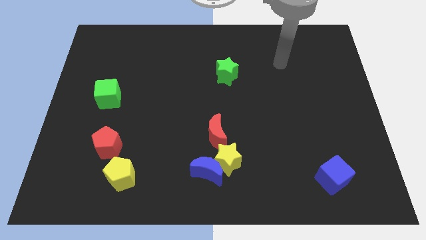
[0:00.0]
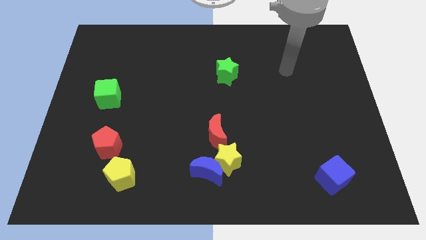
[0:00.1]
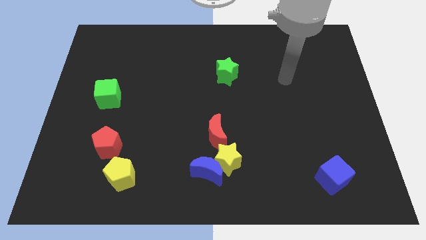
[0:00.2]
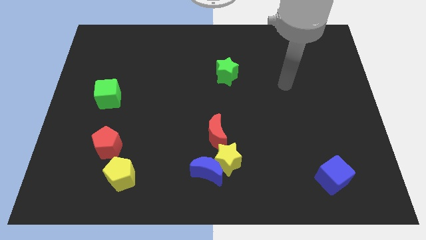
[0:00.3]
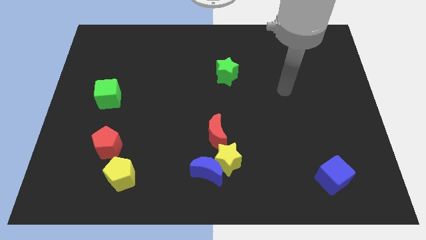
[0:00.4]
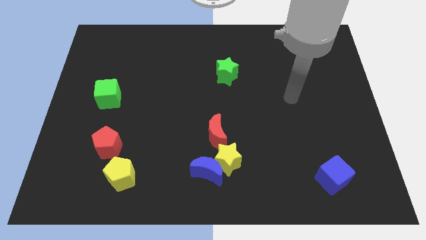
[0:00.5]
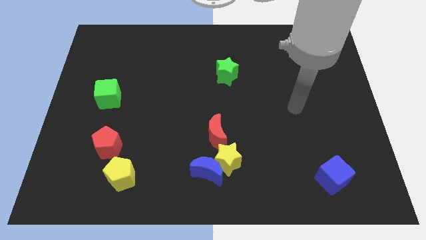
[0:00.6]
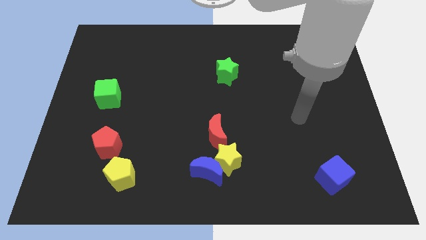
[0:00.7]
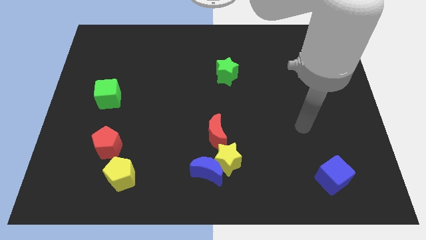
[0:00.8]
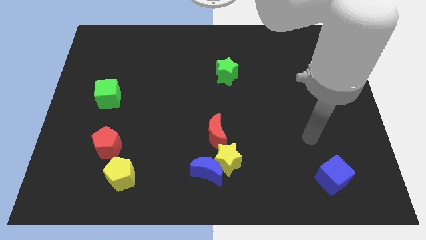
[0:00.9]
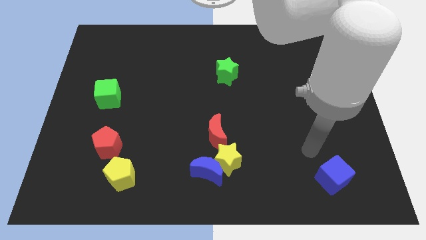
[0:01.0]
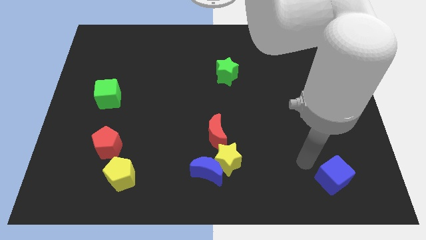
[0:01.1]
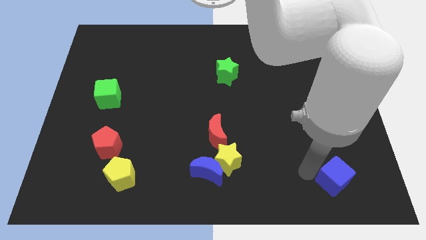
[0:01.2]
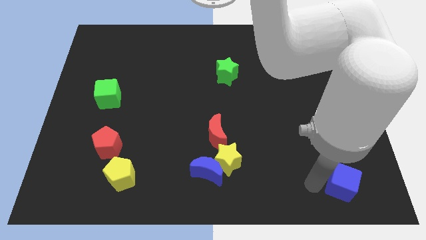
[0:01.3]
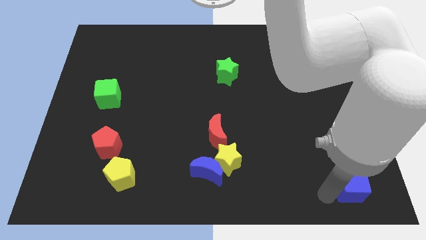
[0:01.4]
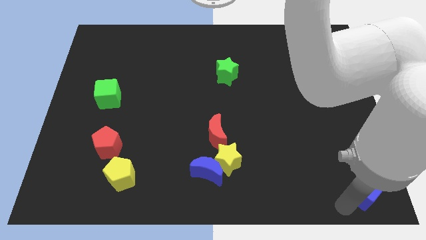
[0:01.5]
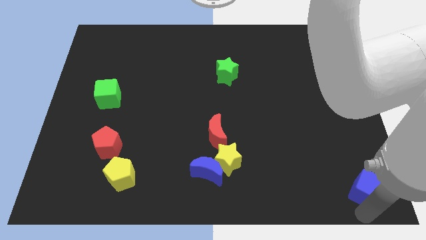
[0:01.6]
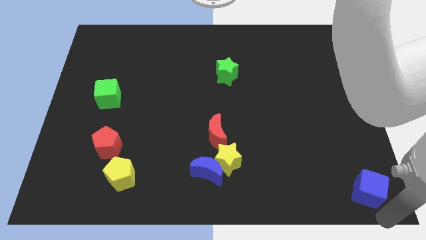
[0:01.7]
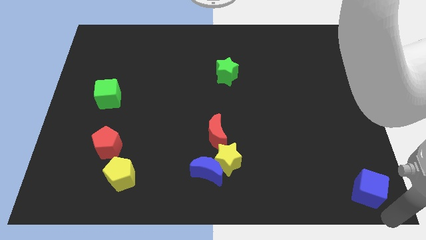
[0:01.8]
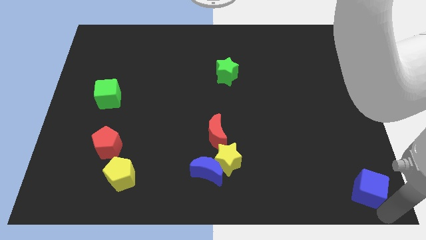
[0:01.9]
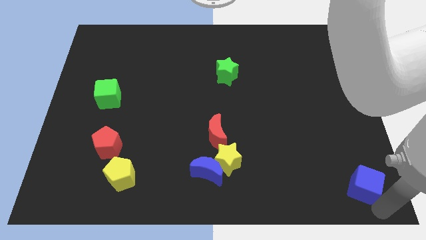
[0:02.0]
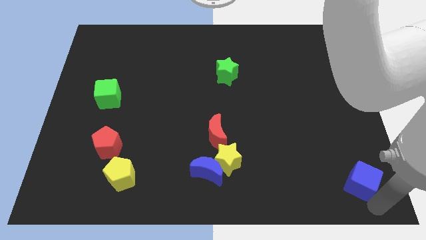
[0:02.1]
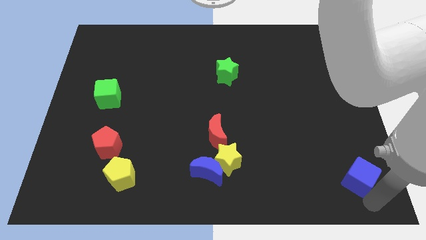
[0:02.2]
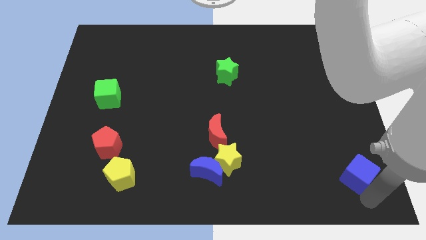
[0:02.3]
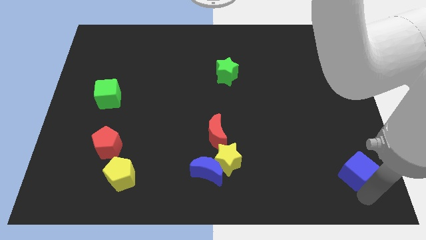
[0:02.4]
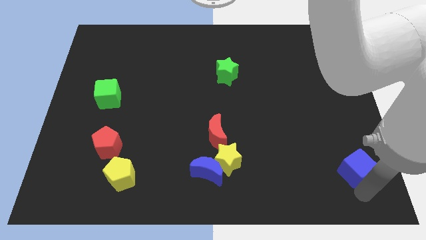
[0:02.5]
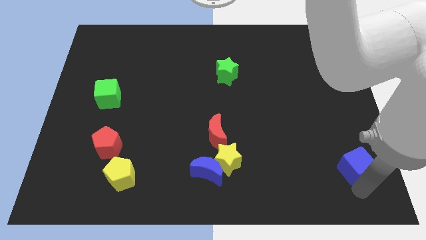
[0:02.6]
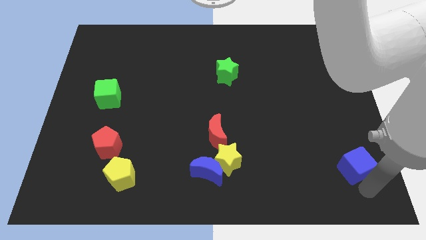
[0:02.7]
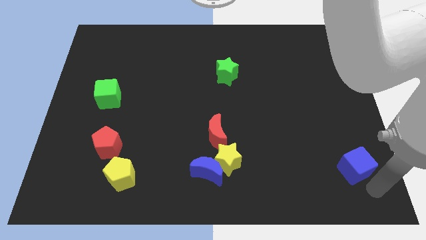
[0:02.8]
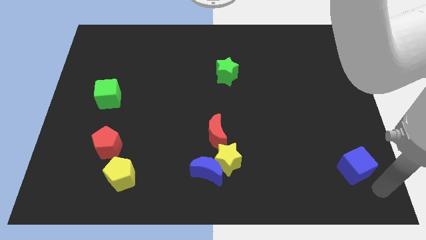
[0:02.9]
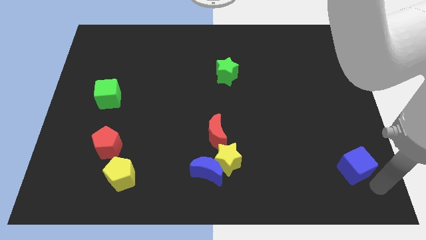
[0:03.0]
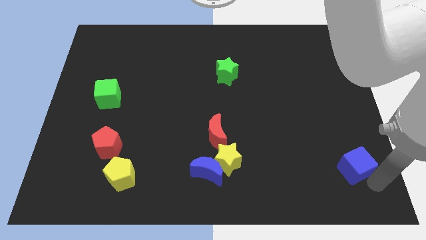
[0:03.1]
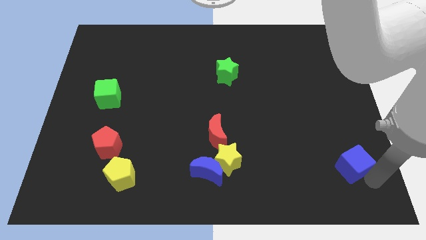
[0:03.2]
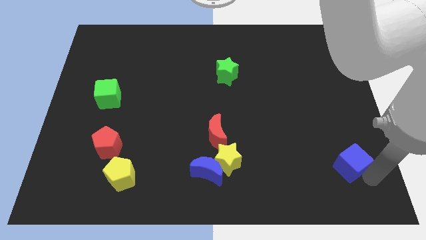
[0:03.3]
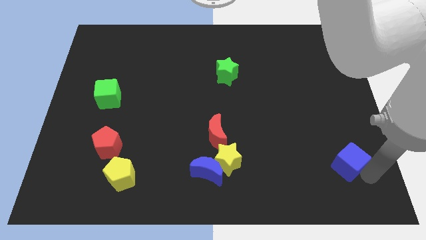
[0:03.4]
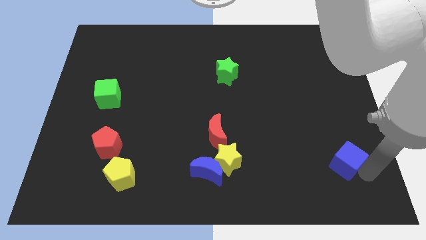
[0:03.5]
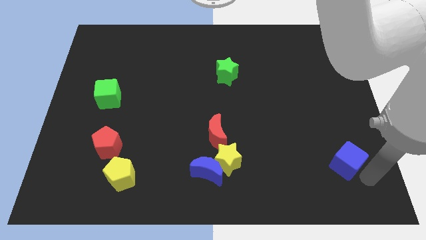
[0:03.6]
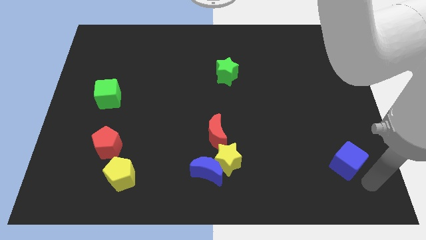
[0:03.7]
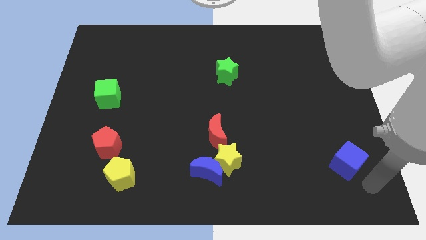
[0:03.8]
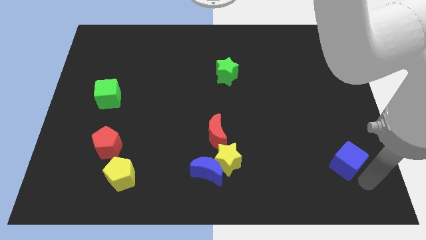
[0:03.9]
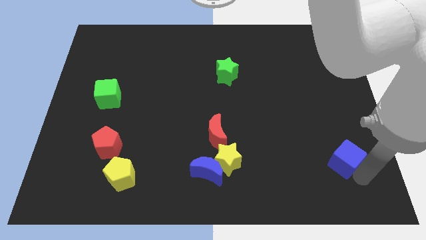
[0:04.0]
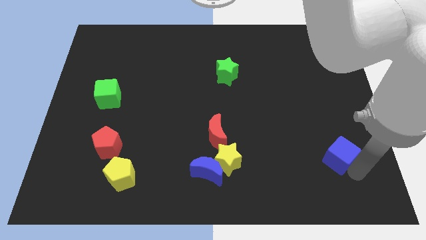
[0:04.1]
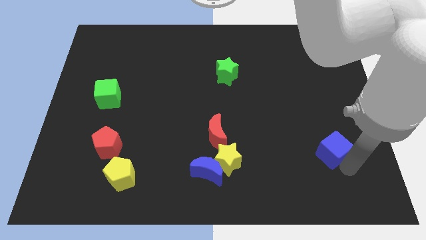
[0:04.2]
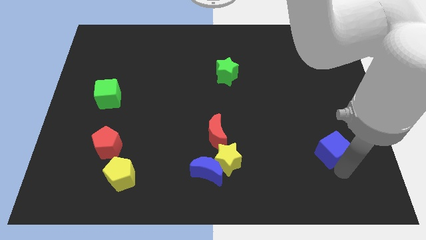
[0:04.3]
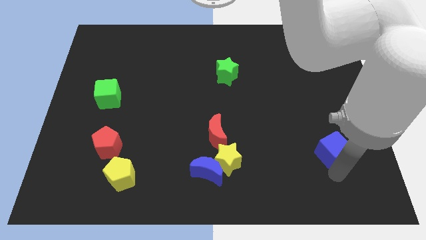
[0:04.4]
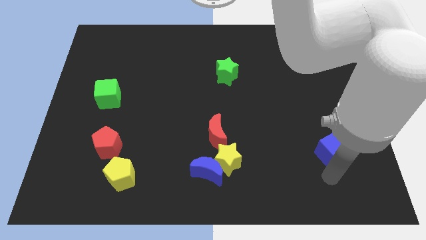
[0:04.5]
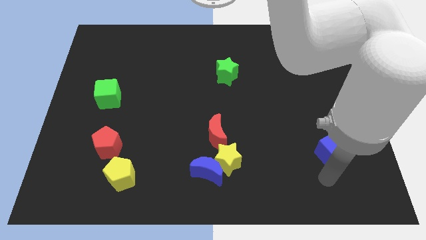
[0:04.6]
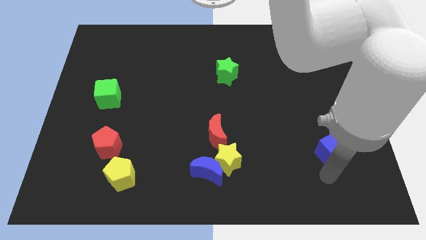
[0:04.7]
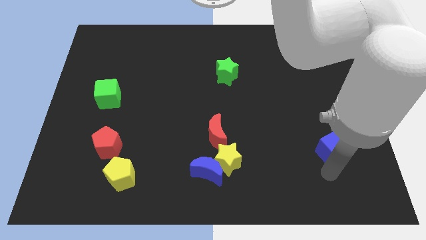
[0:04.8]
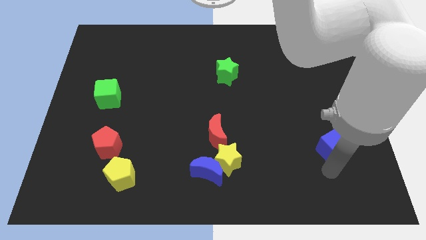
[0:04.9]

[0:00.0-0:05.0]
push the blue cube up somewhat

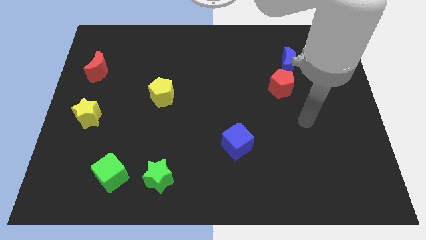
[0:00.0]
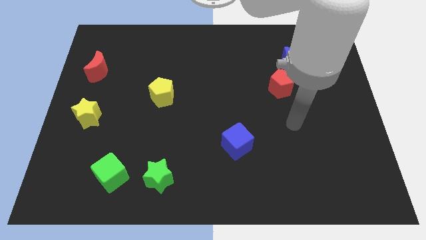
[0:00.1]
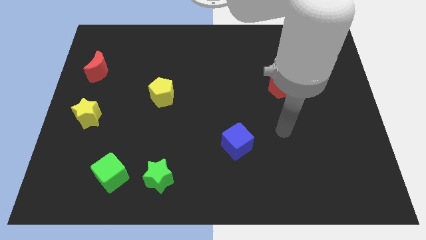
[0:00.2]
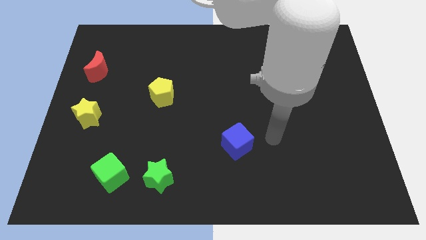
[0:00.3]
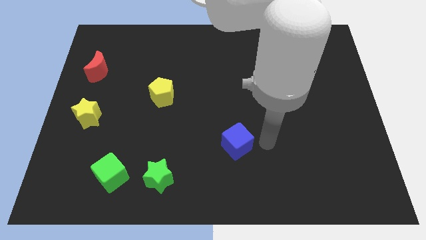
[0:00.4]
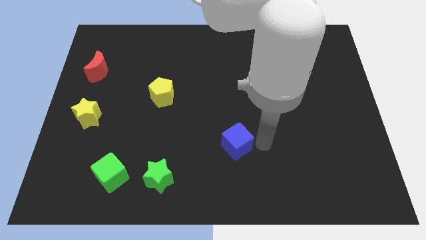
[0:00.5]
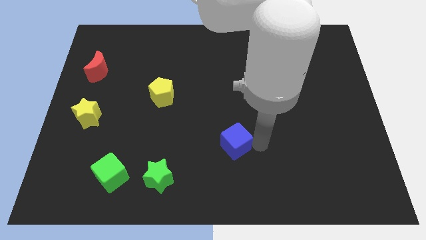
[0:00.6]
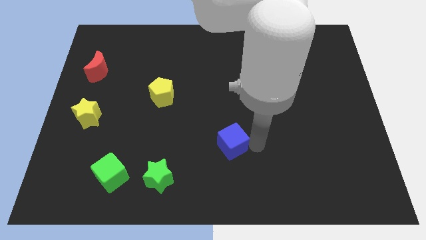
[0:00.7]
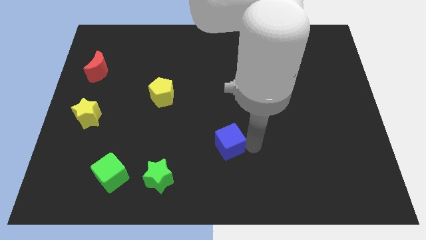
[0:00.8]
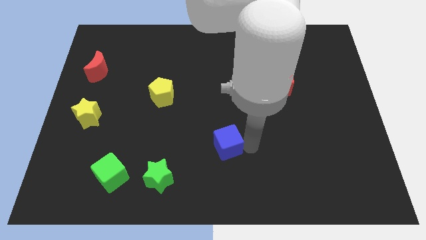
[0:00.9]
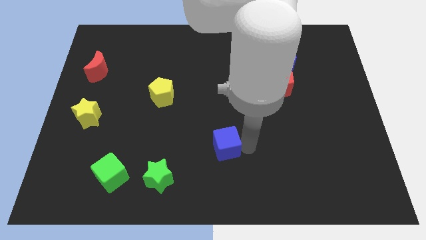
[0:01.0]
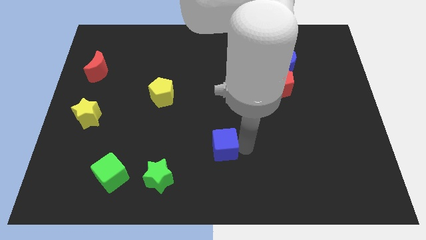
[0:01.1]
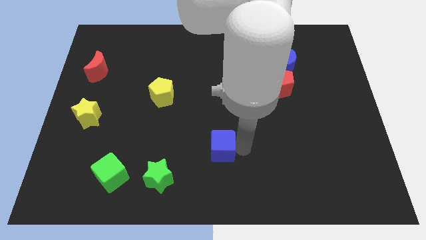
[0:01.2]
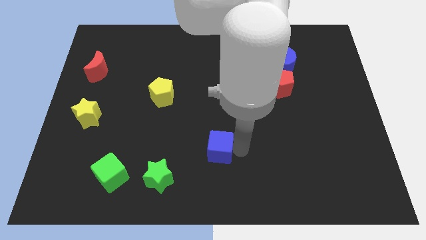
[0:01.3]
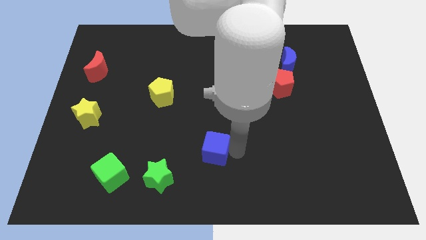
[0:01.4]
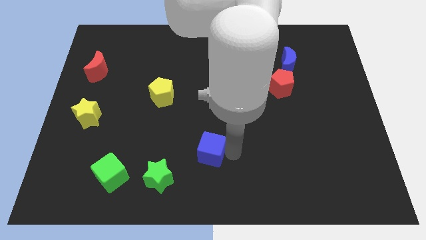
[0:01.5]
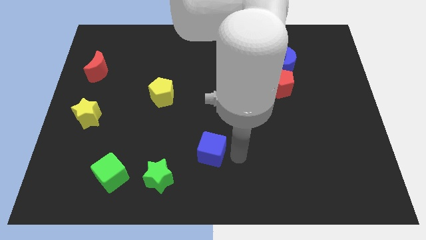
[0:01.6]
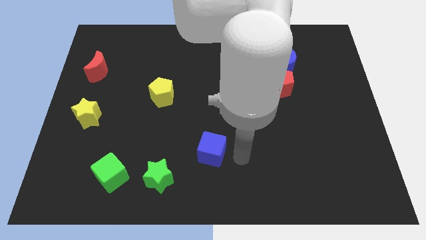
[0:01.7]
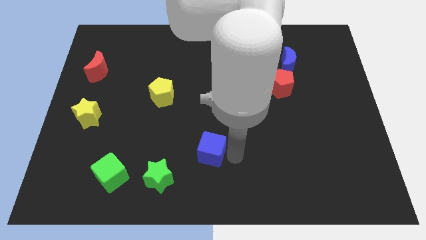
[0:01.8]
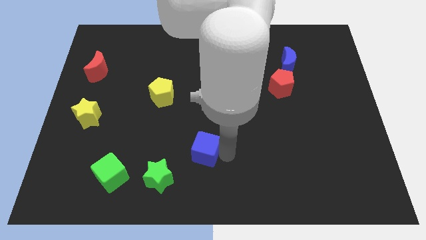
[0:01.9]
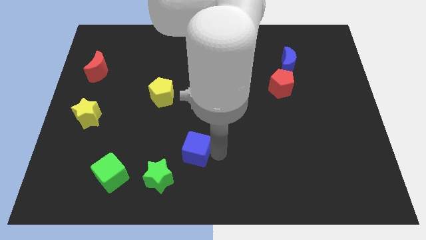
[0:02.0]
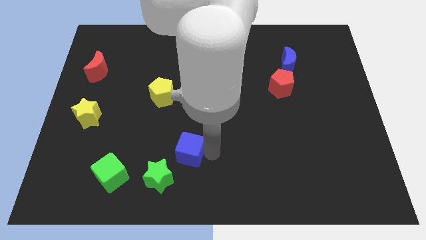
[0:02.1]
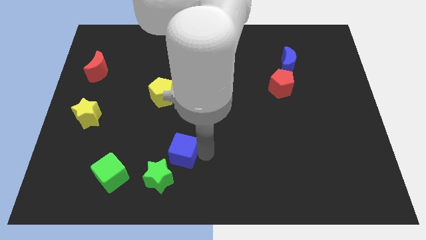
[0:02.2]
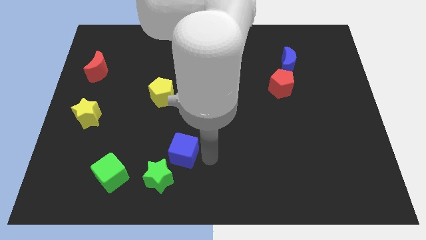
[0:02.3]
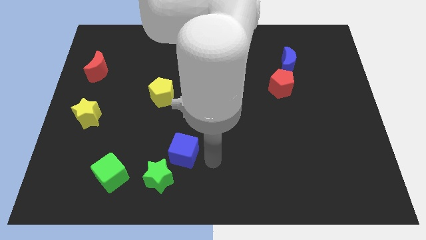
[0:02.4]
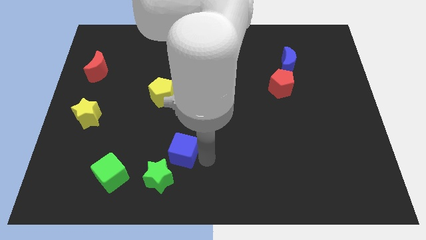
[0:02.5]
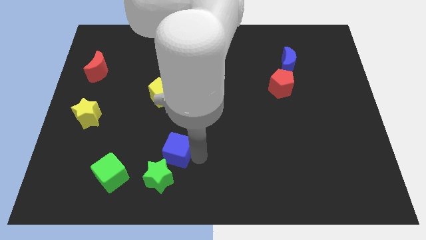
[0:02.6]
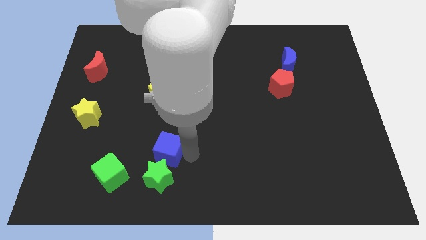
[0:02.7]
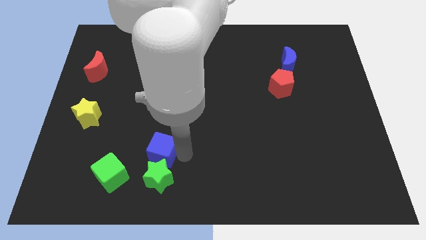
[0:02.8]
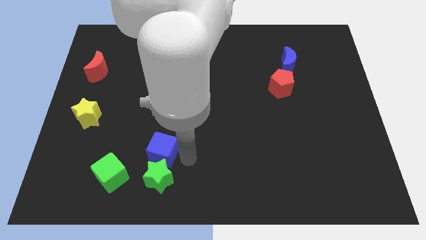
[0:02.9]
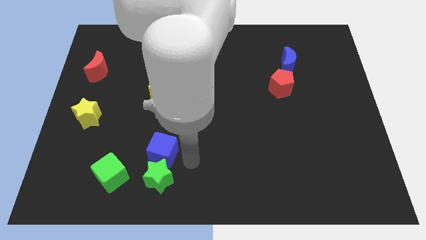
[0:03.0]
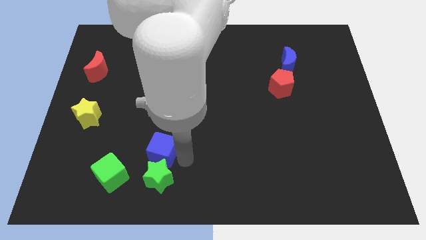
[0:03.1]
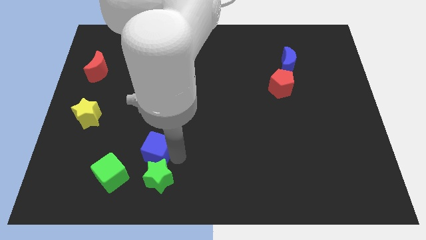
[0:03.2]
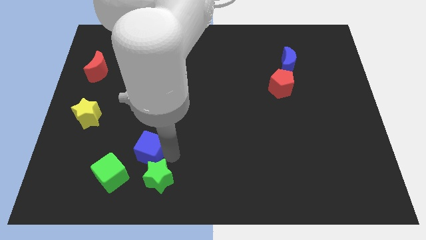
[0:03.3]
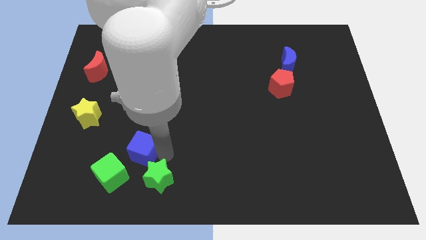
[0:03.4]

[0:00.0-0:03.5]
slide the blue cube to the left
